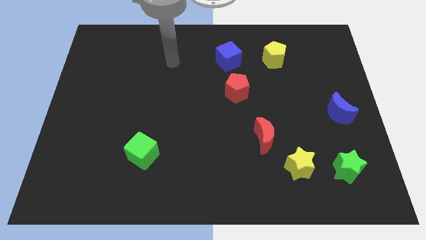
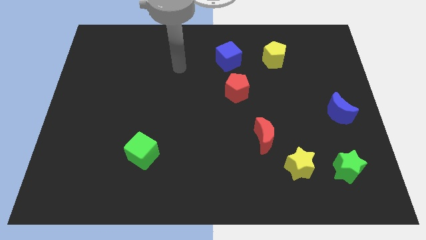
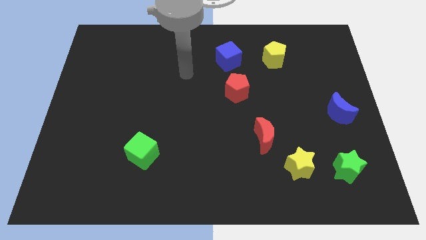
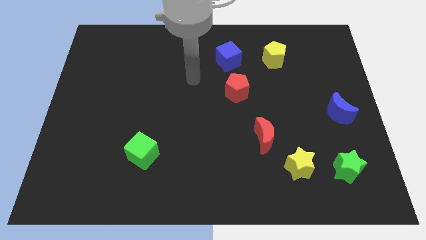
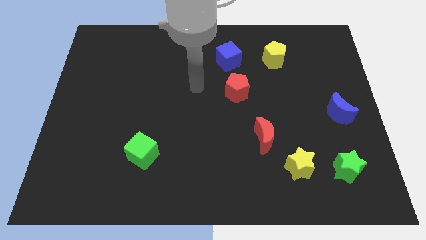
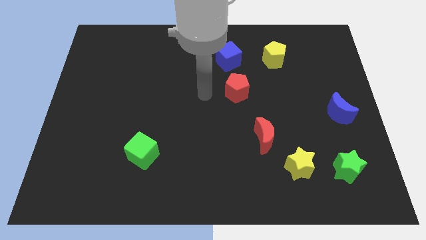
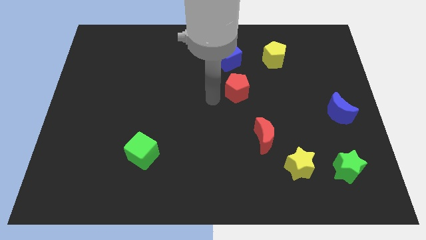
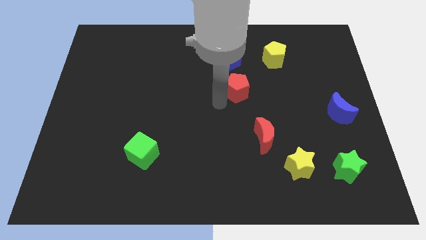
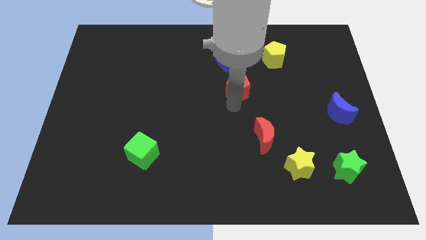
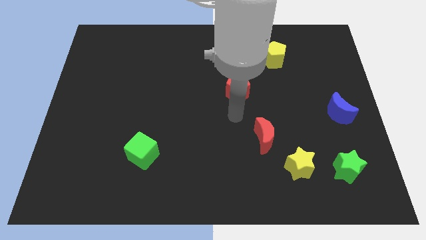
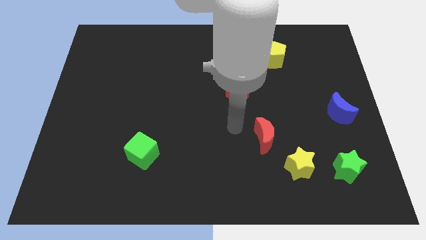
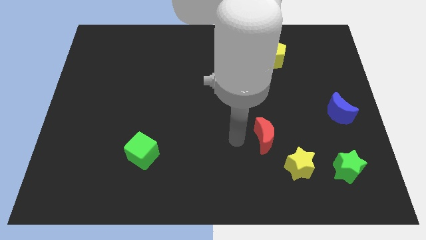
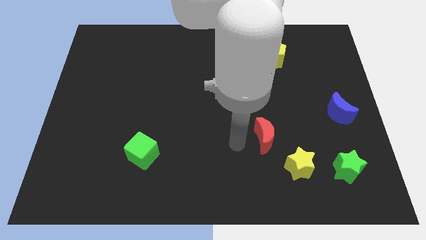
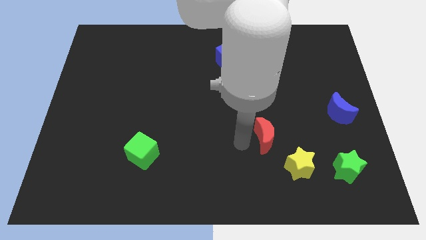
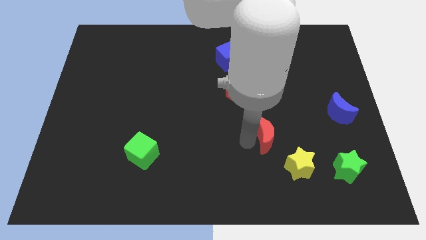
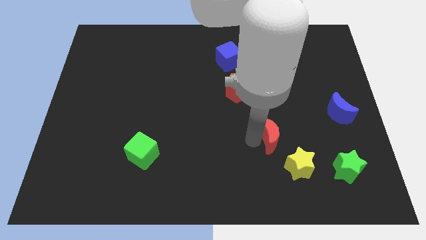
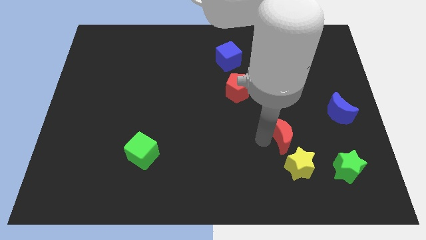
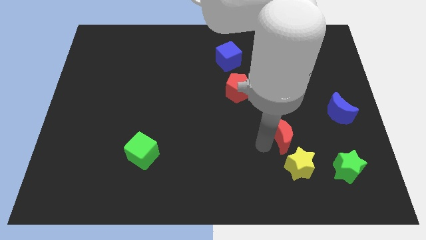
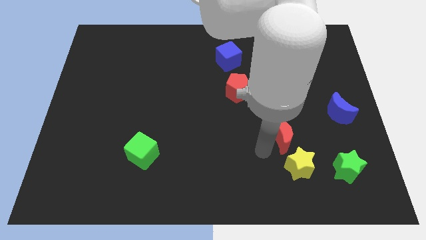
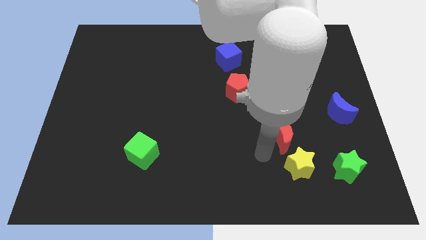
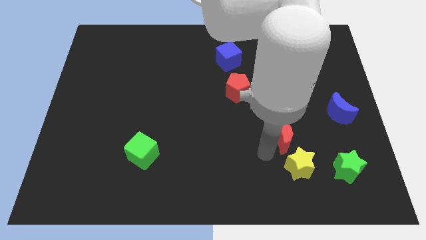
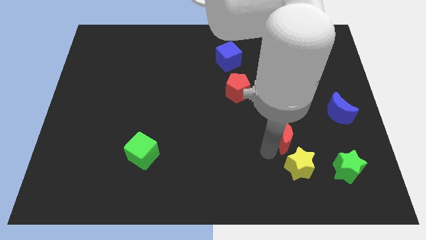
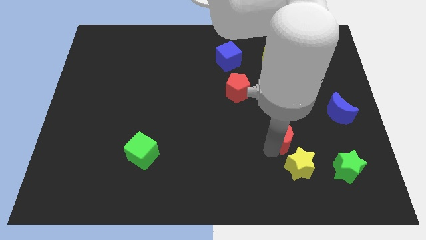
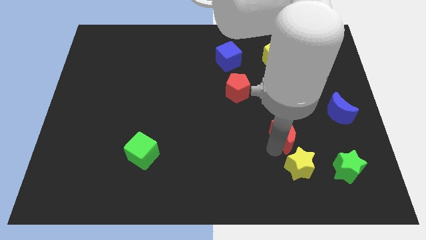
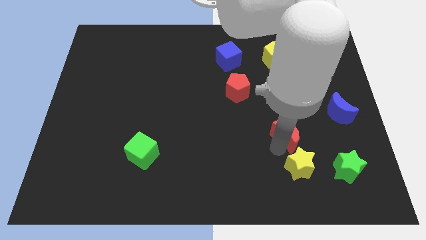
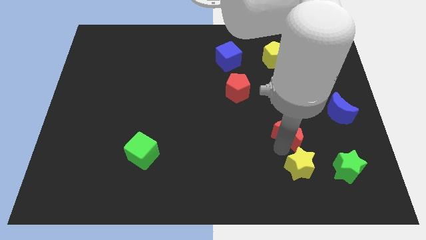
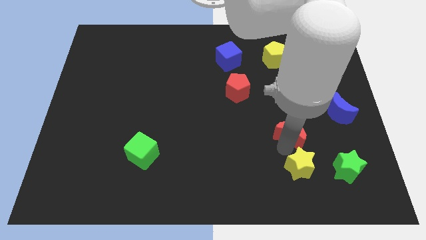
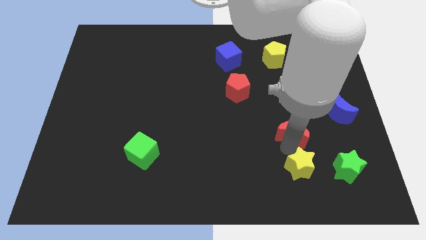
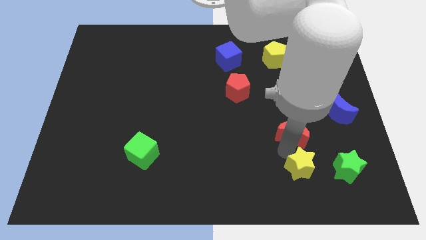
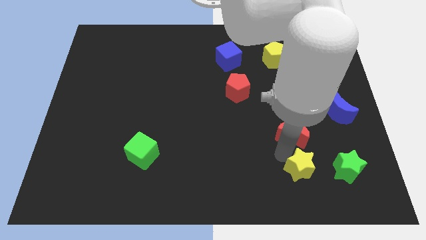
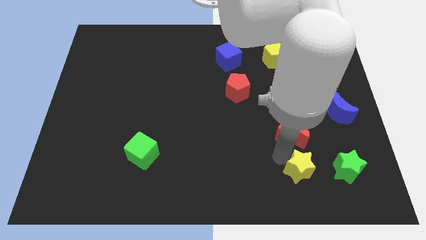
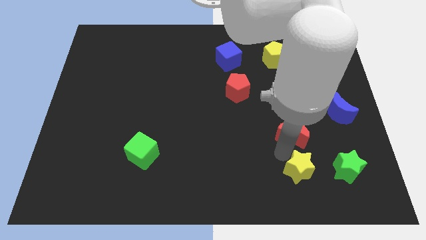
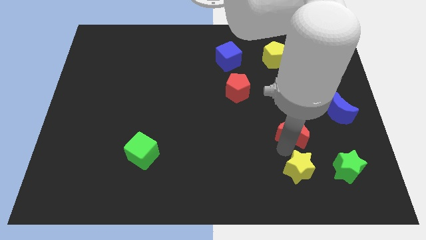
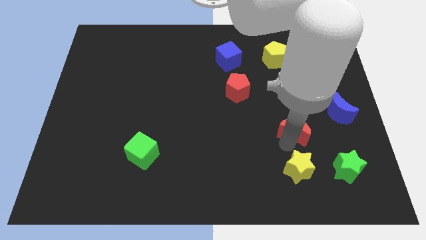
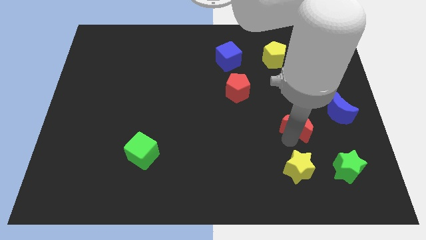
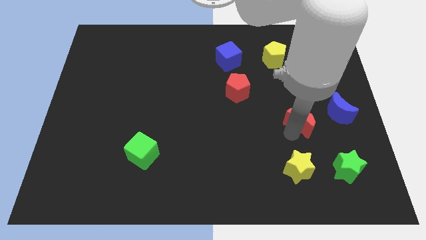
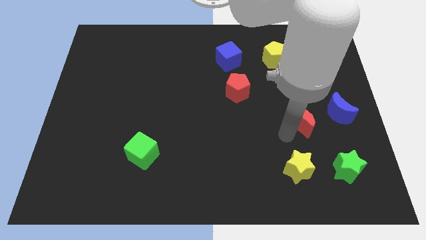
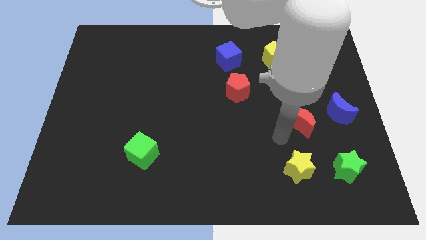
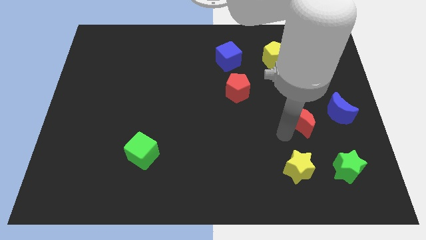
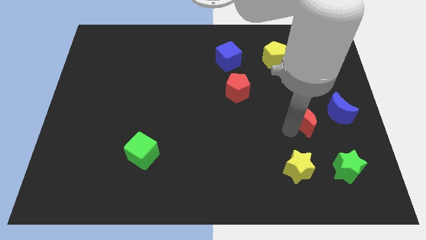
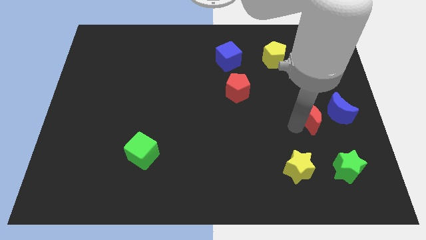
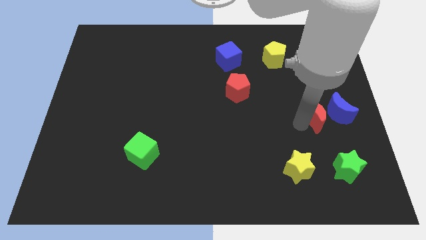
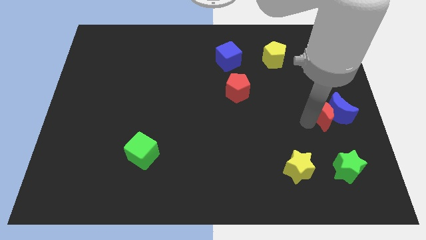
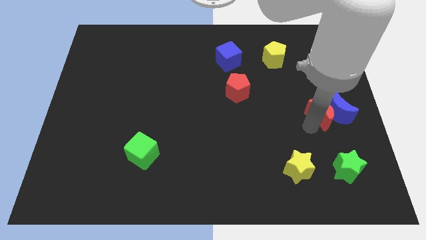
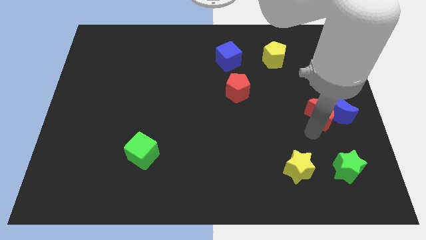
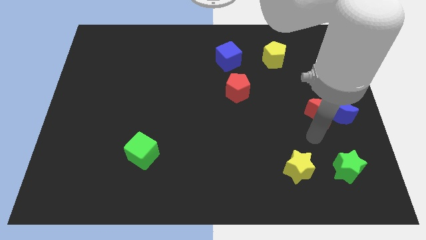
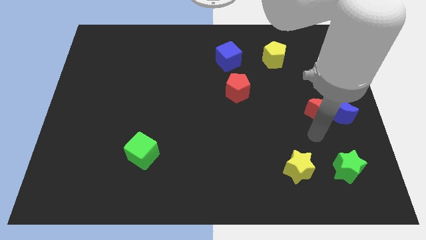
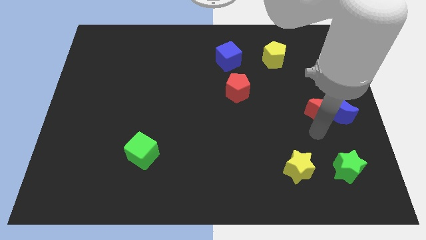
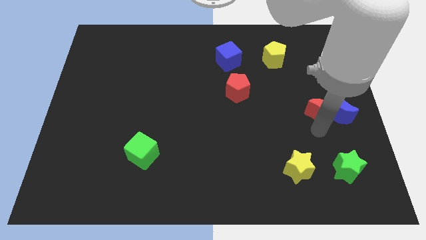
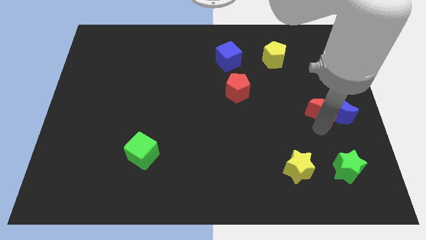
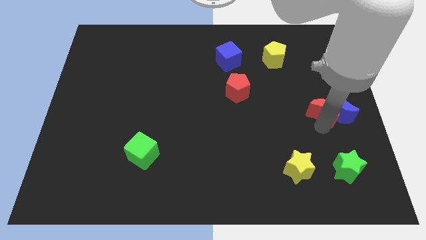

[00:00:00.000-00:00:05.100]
move the red moon to the center right

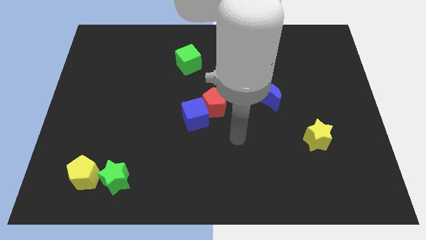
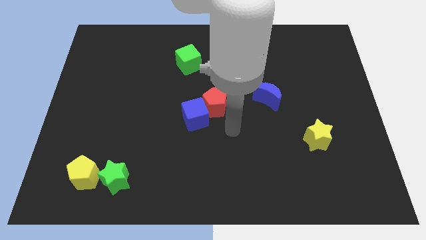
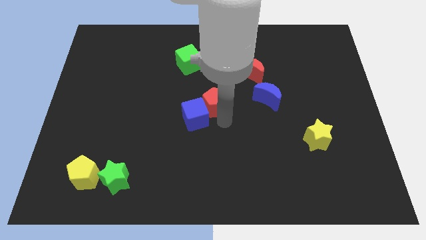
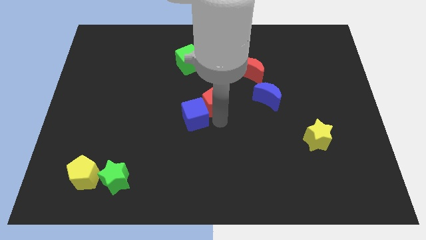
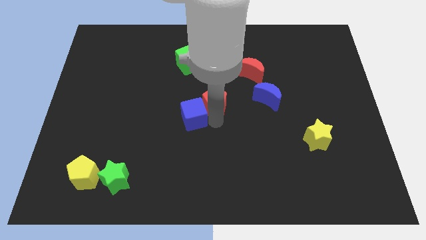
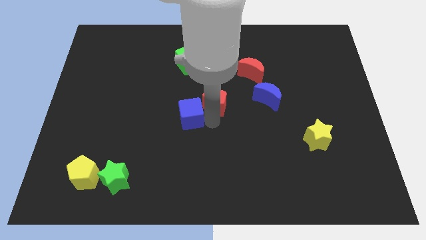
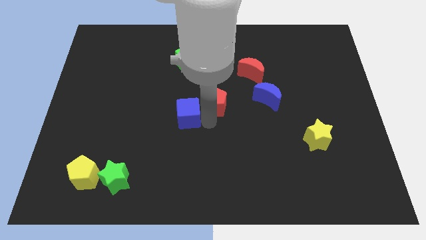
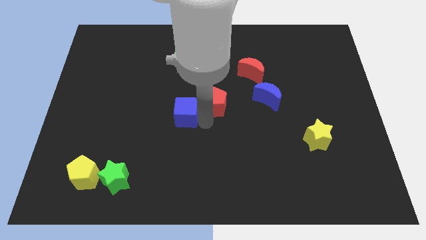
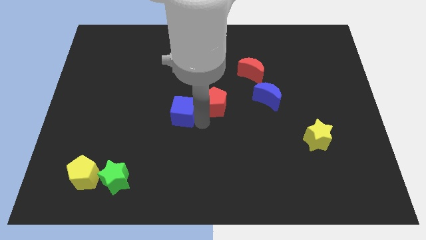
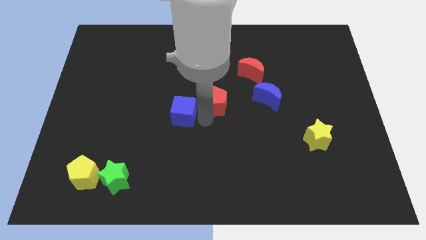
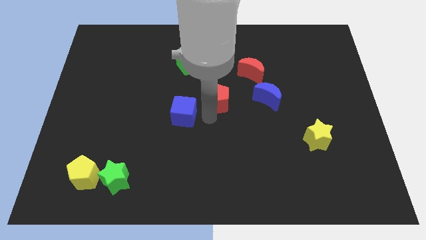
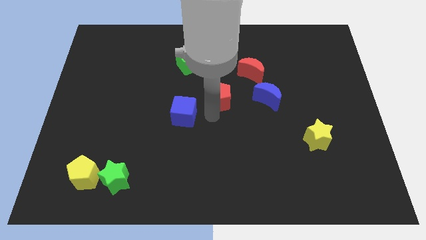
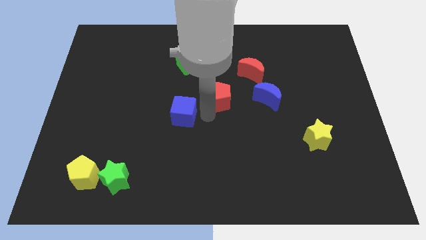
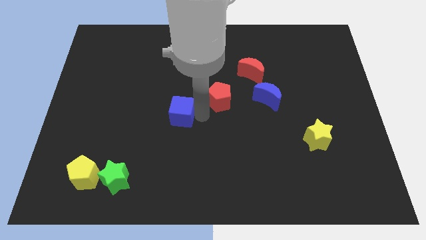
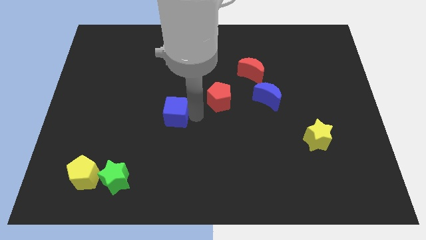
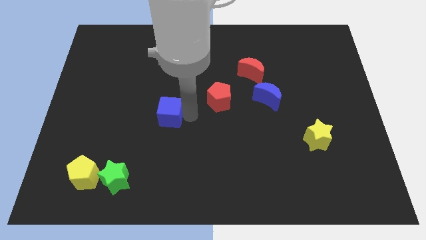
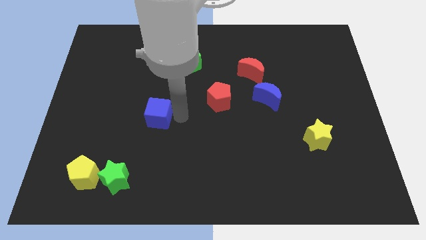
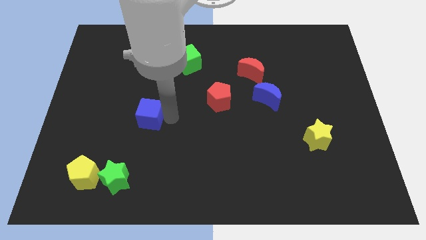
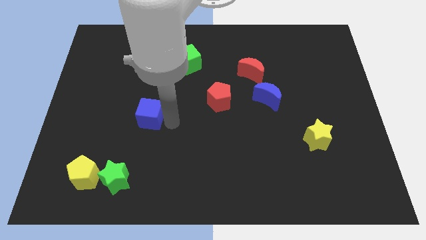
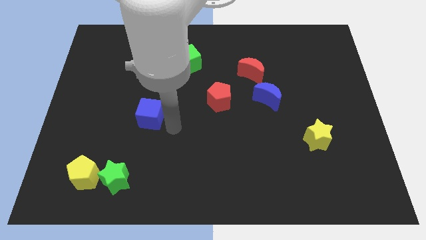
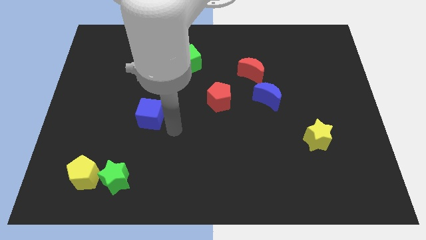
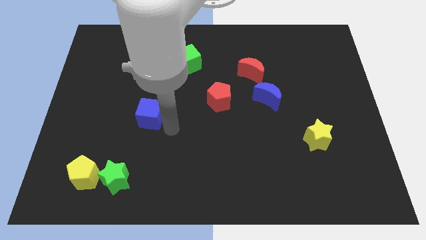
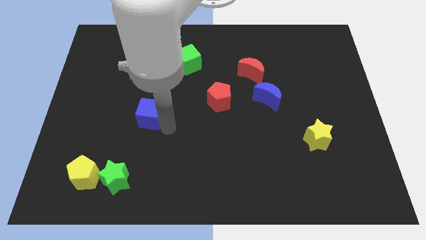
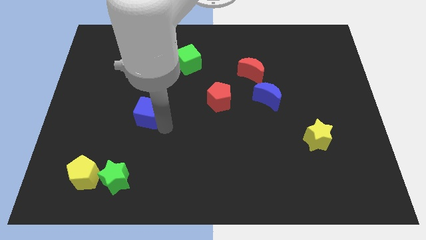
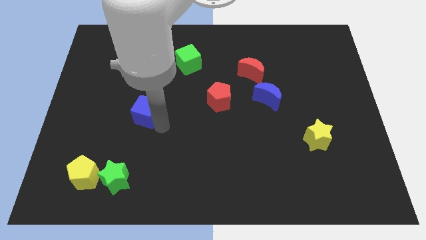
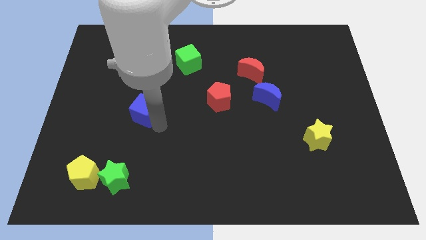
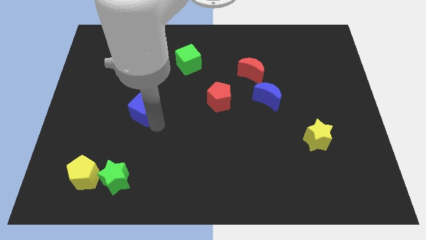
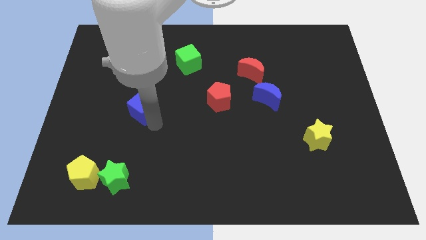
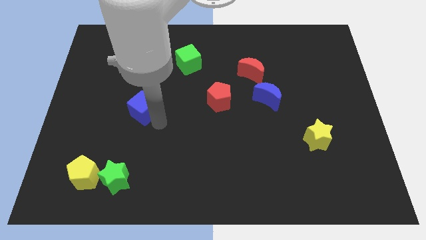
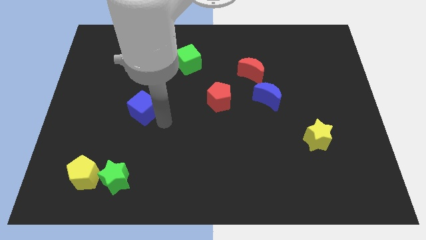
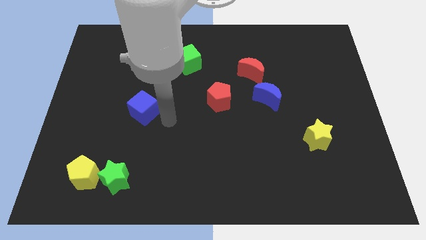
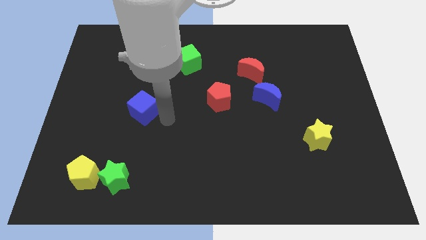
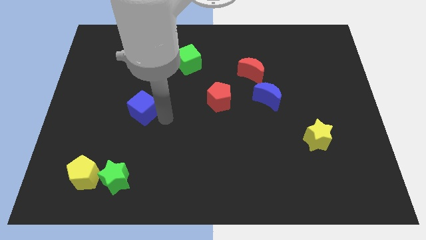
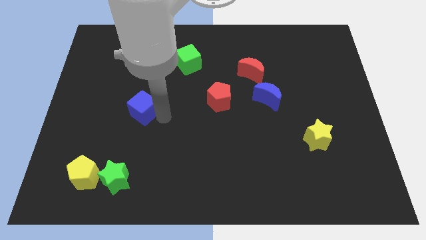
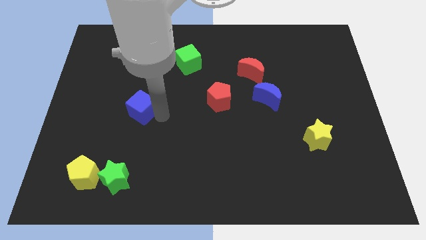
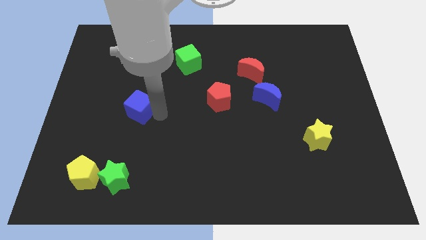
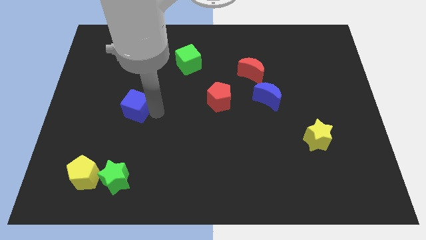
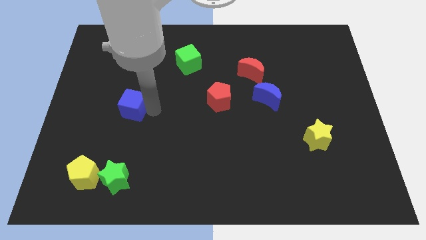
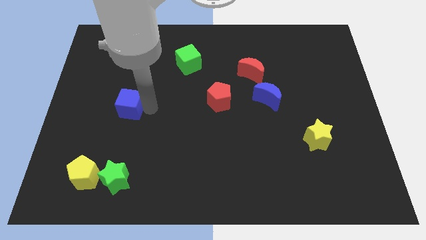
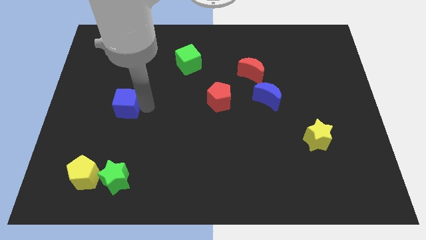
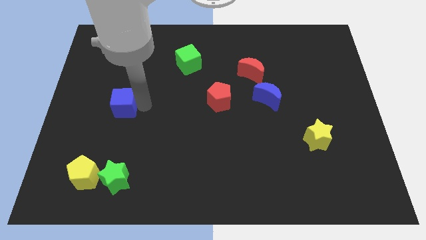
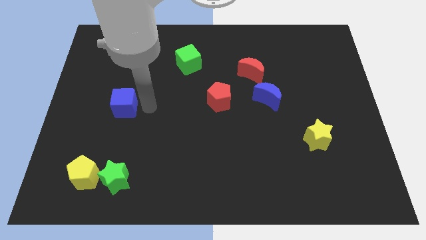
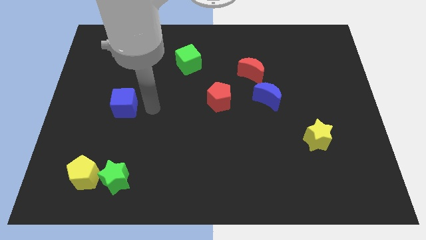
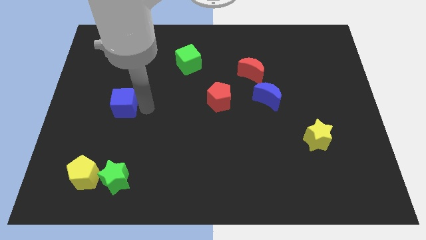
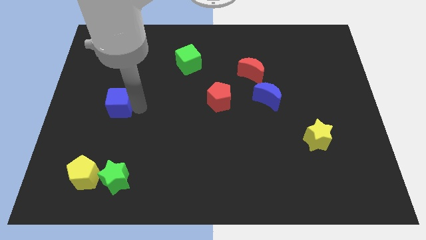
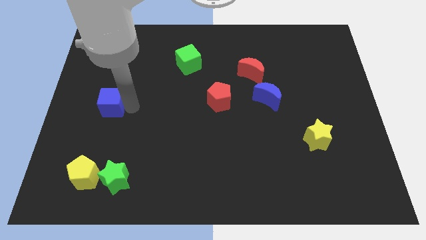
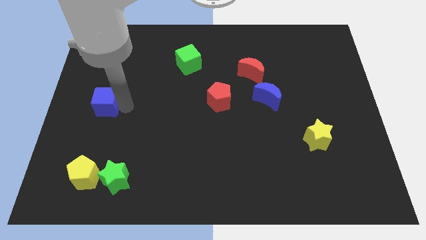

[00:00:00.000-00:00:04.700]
put the blue cube to the left side of the board
